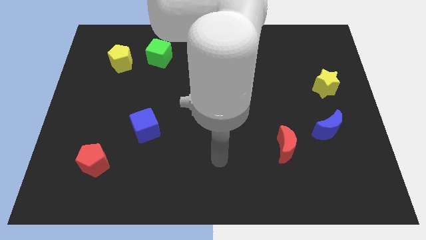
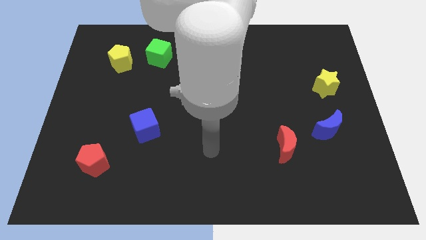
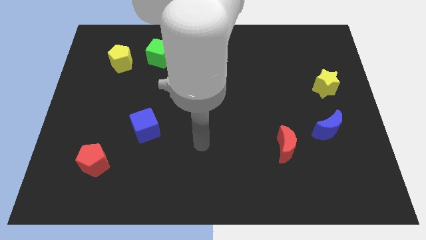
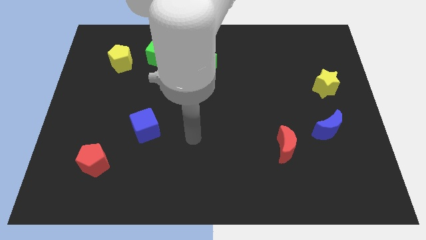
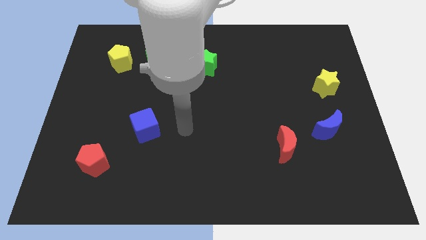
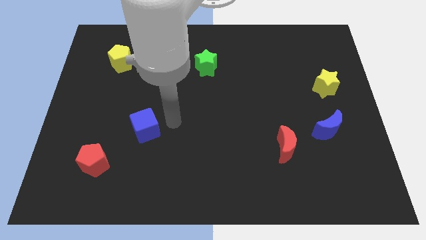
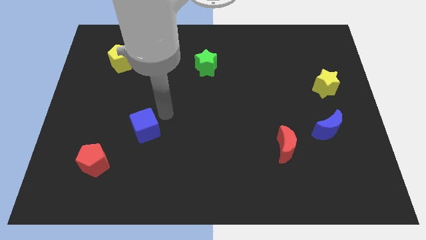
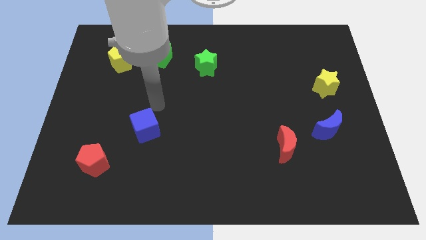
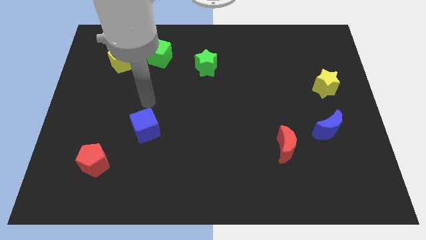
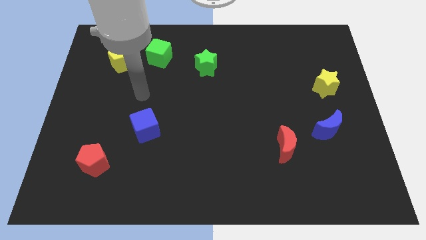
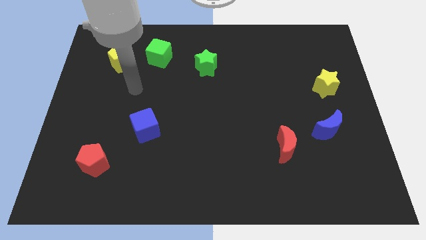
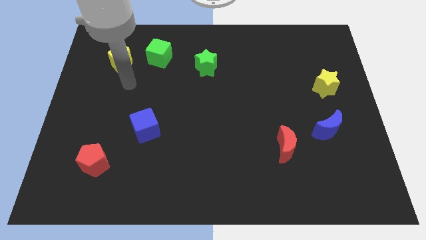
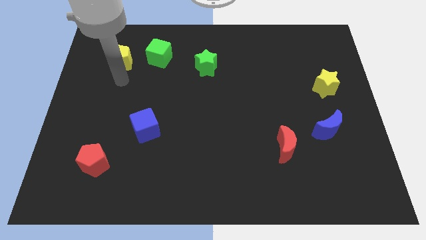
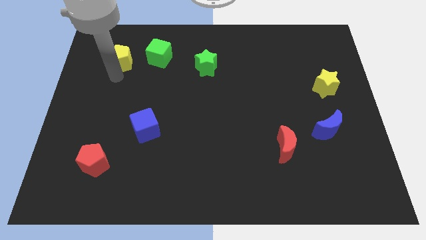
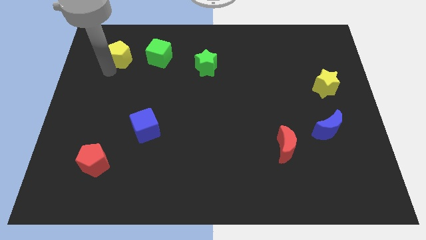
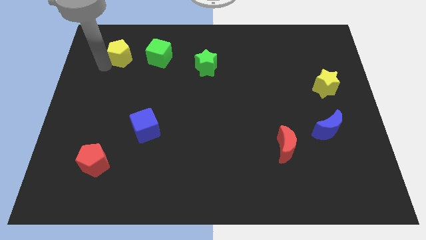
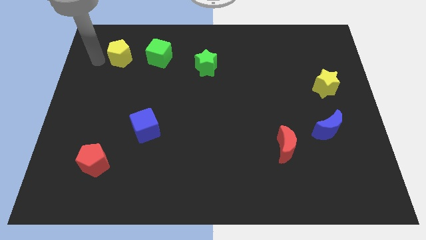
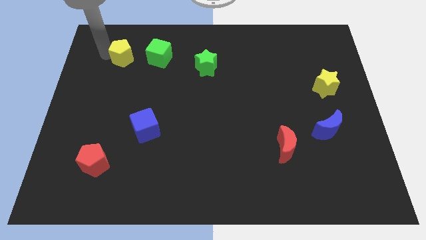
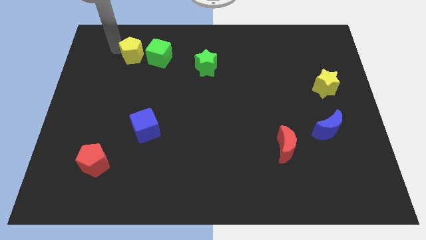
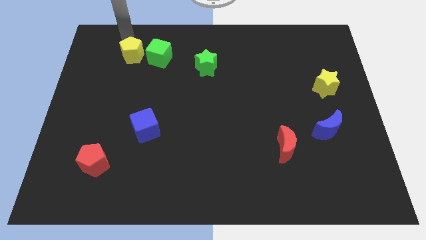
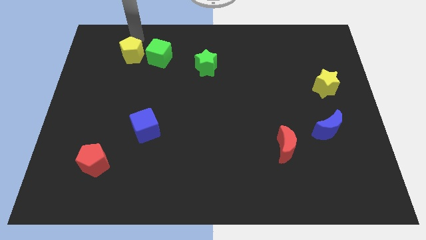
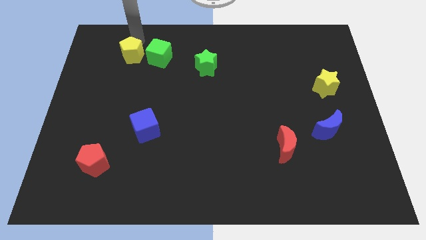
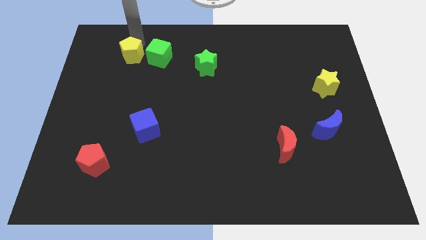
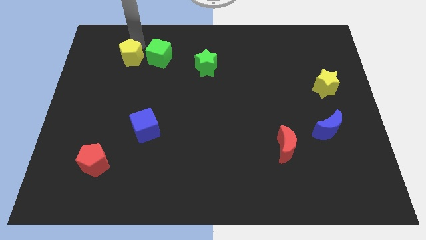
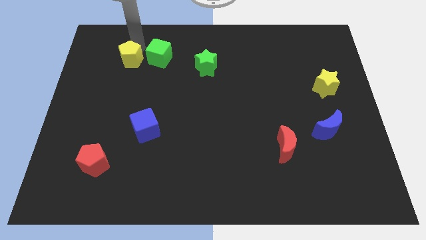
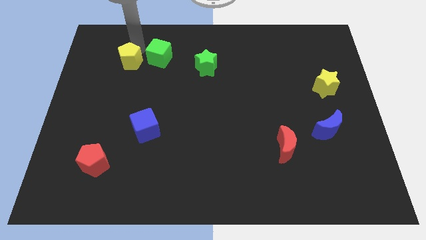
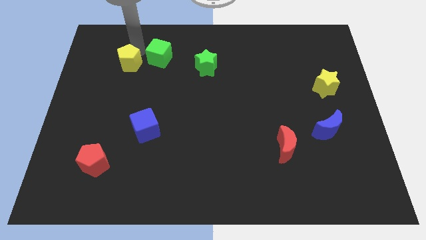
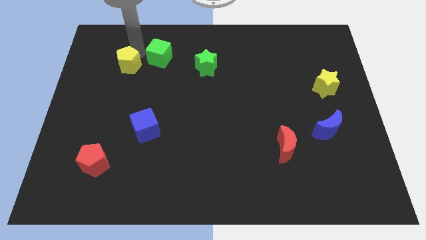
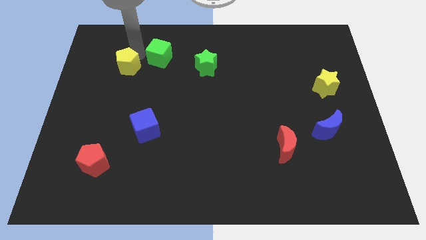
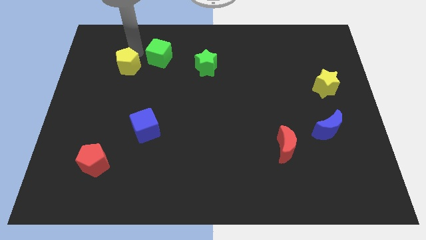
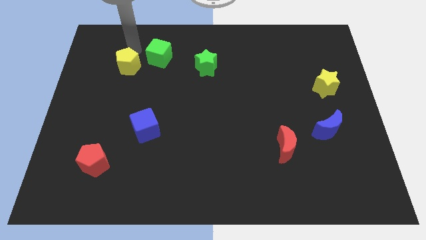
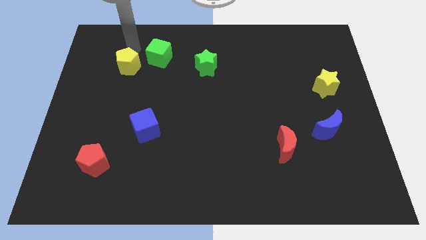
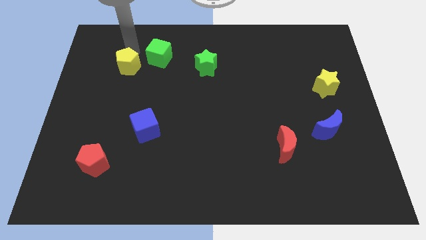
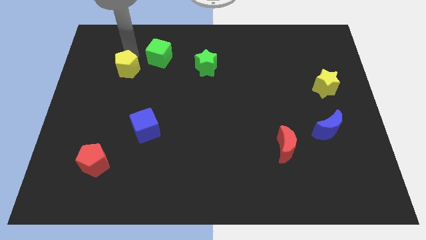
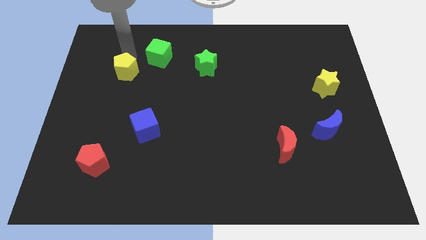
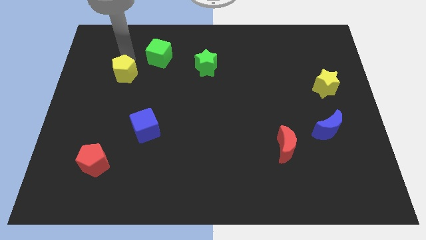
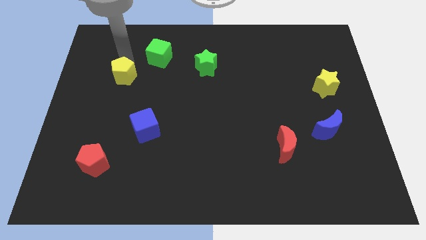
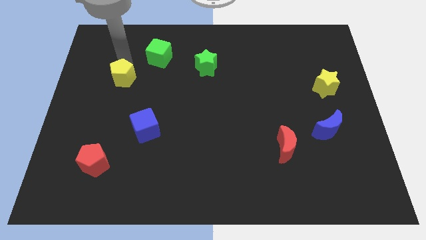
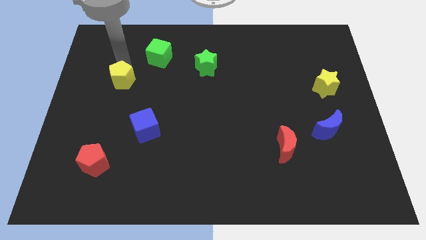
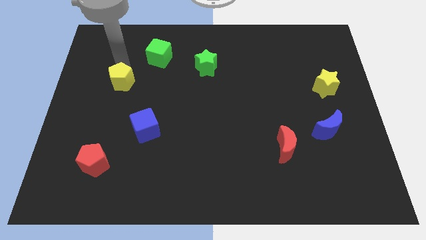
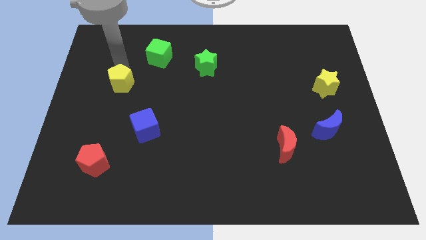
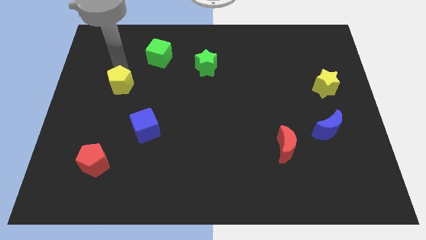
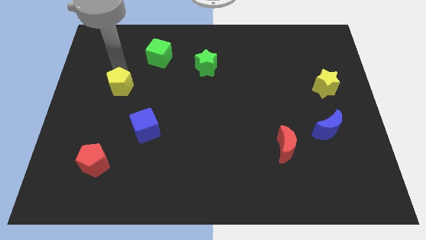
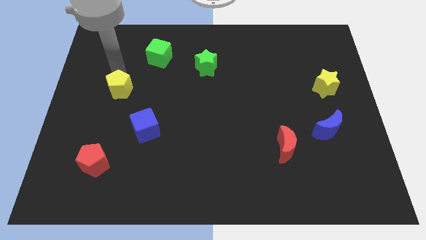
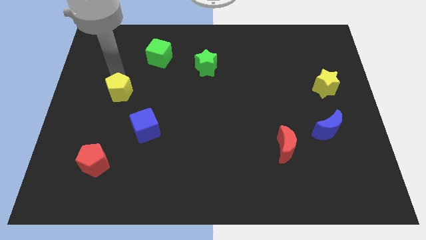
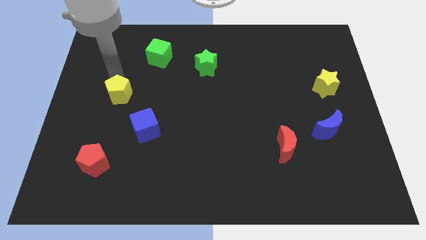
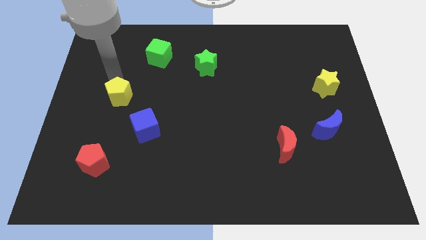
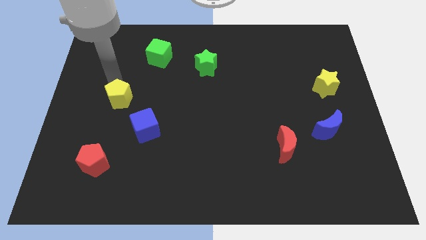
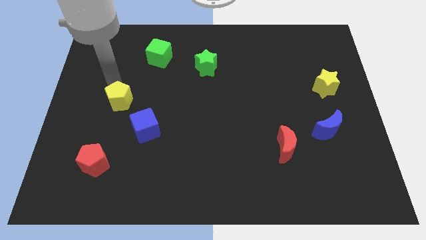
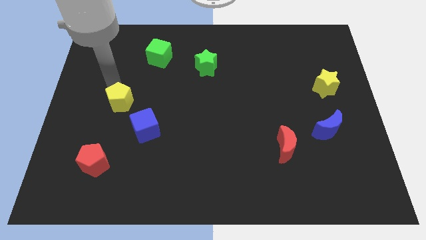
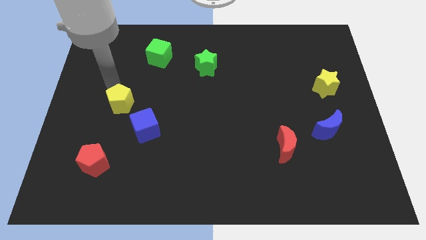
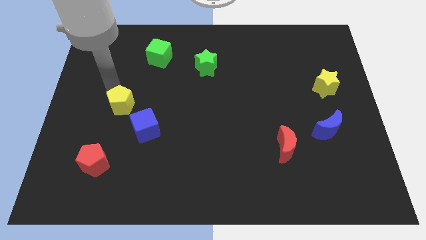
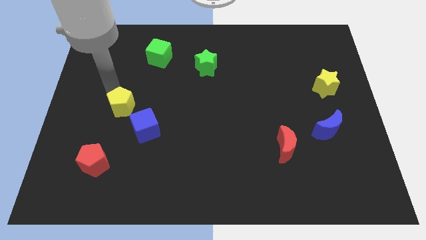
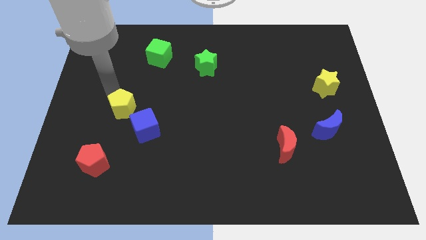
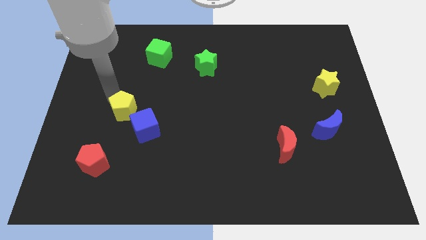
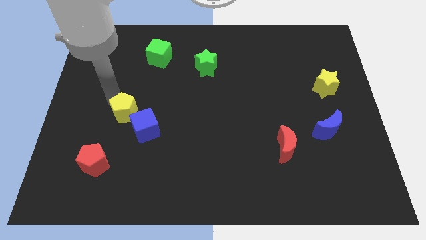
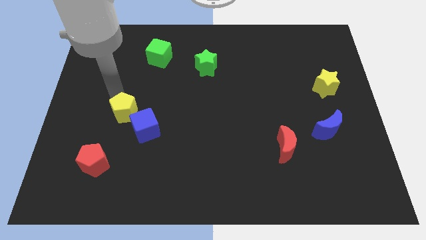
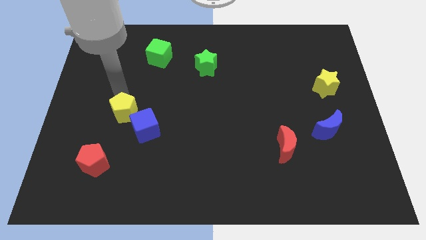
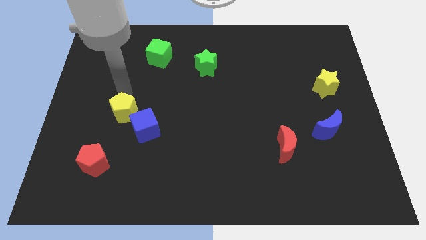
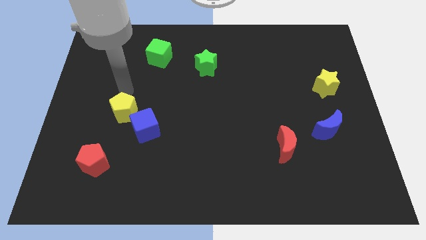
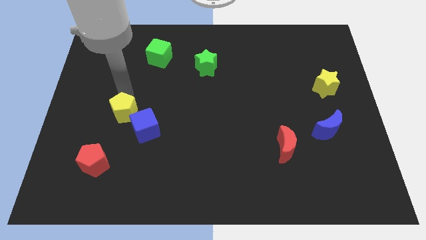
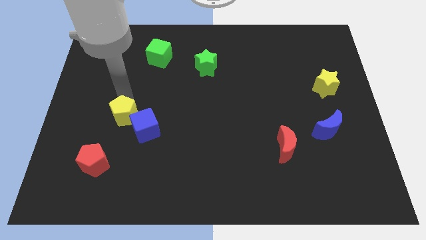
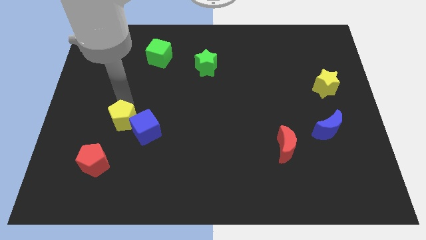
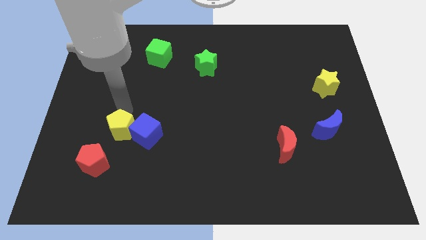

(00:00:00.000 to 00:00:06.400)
put the yellow pentagon diagonally down and to the left of the blue cube

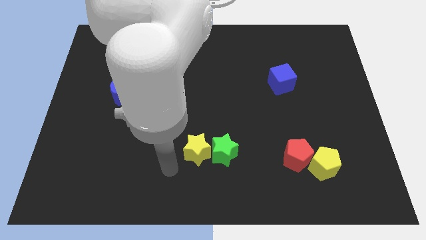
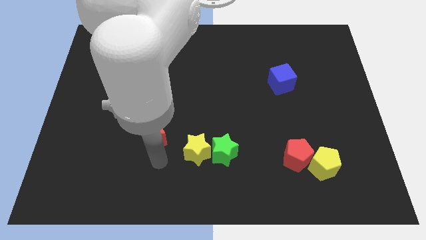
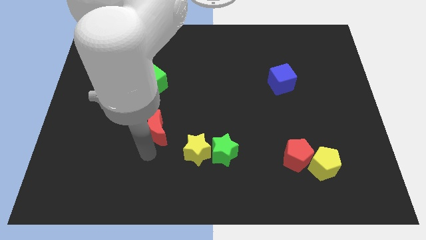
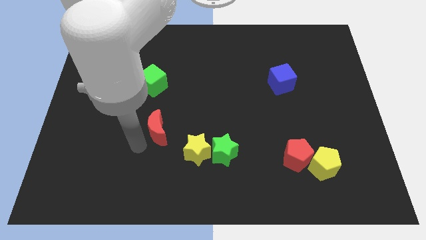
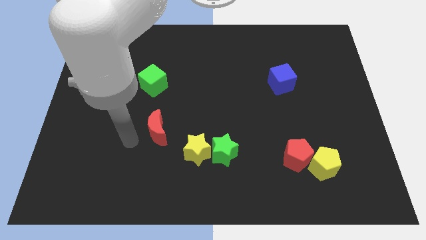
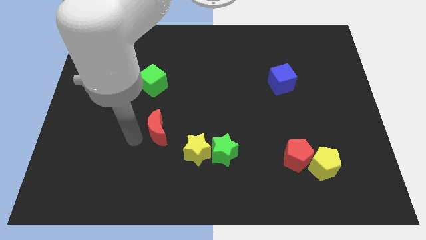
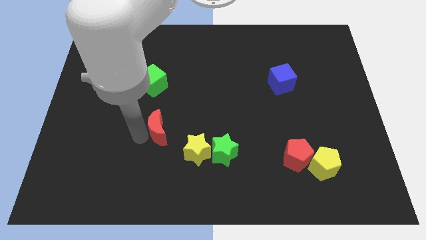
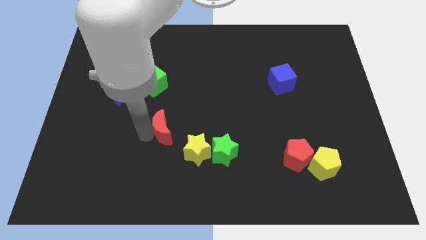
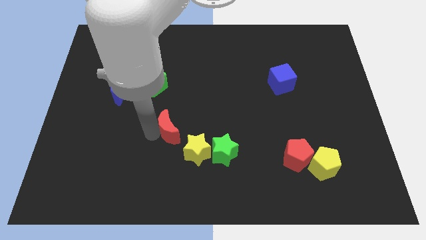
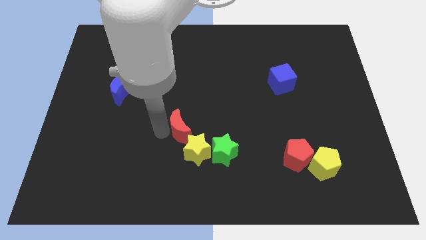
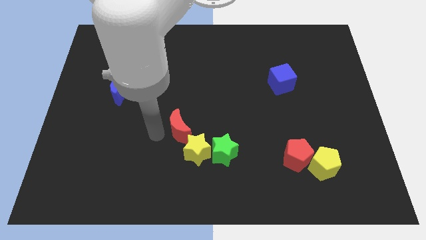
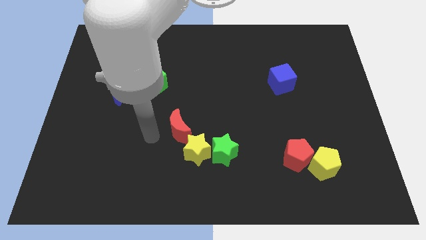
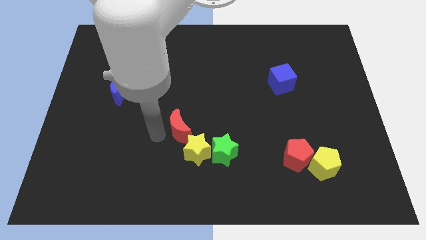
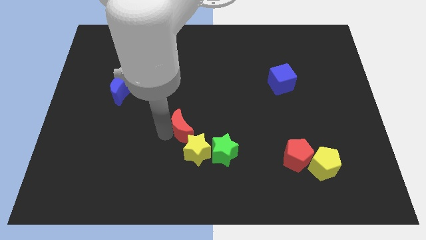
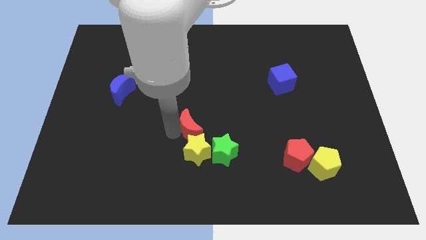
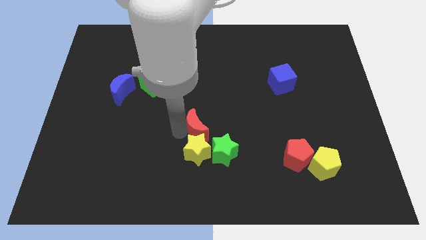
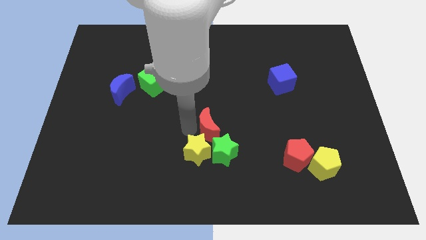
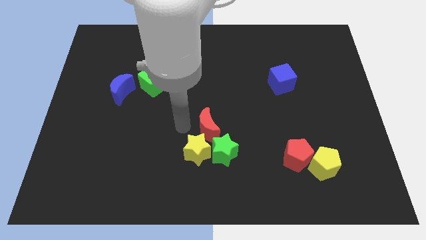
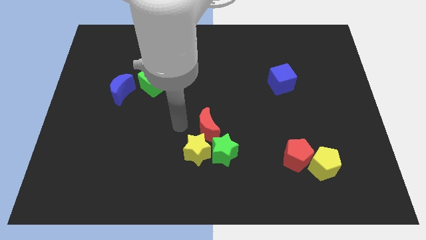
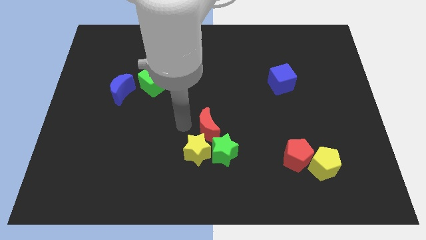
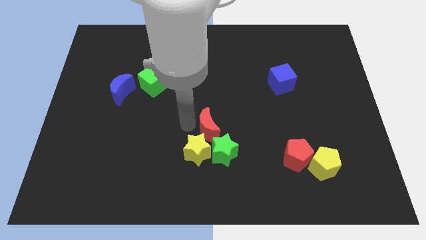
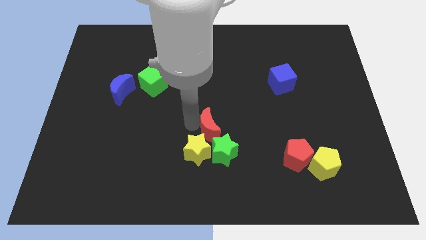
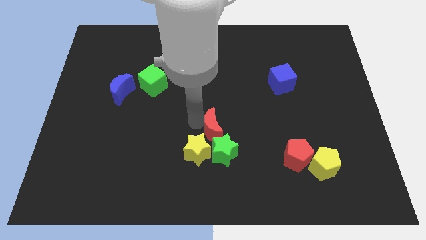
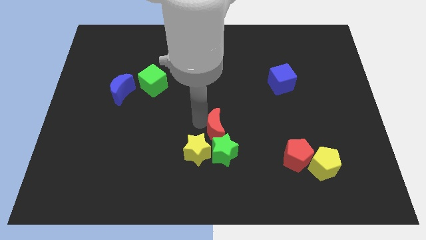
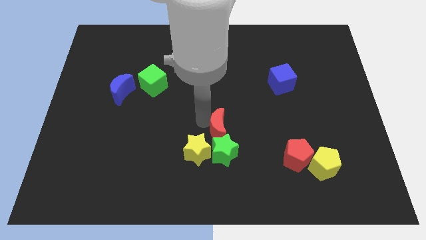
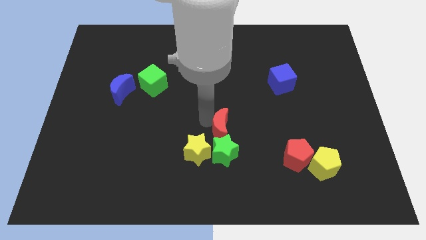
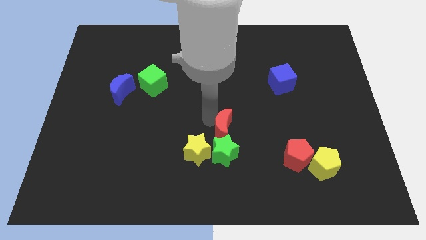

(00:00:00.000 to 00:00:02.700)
move the red moon to the top right side of the green star
